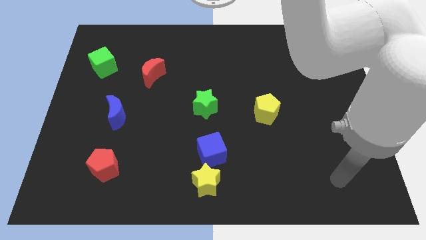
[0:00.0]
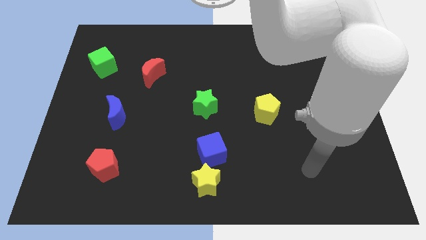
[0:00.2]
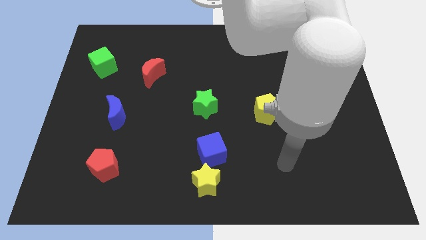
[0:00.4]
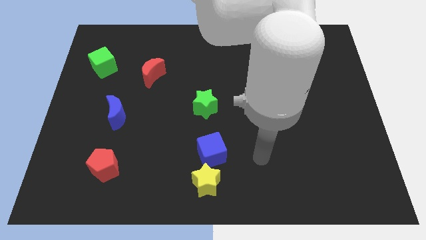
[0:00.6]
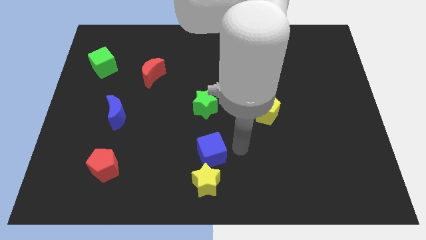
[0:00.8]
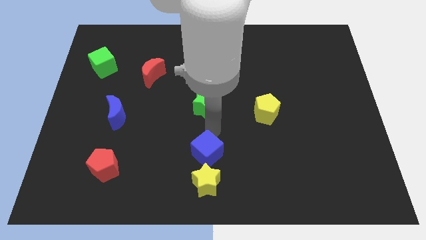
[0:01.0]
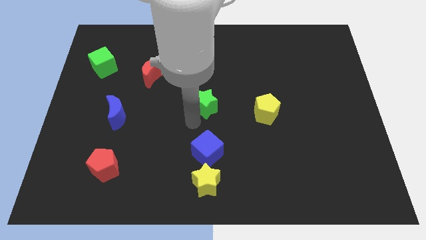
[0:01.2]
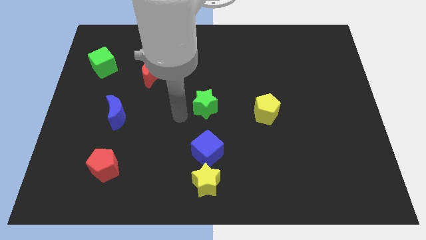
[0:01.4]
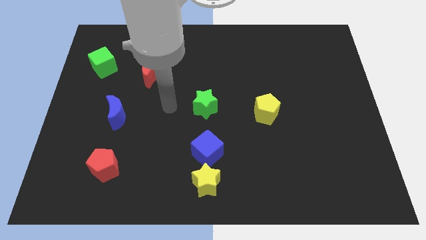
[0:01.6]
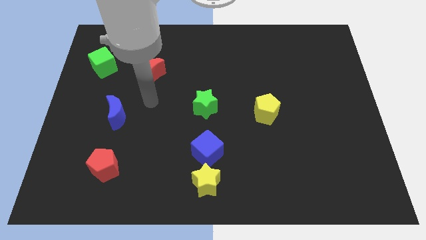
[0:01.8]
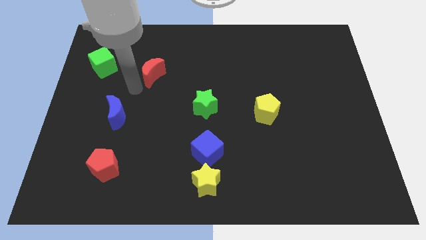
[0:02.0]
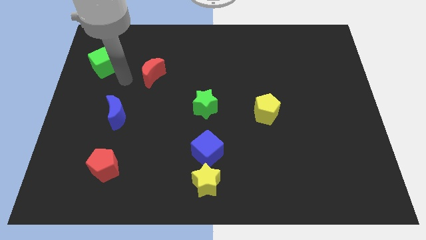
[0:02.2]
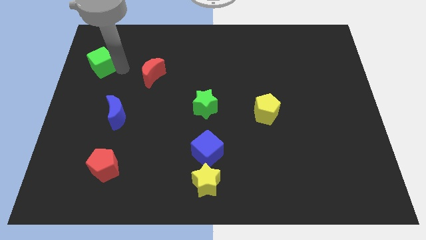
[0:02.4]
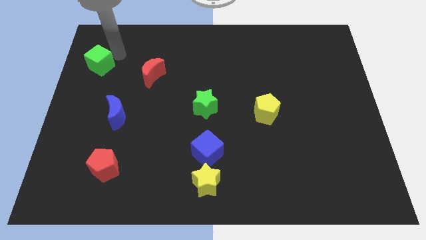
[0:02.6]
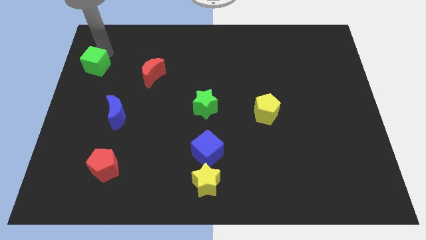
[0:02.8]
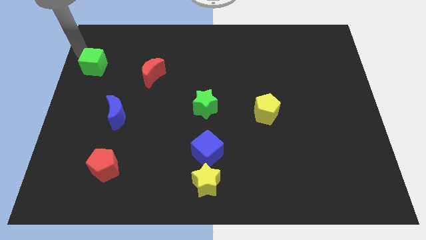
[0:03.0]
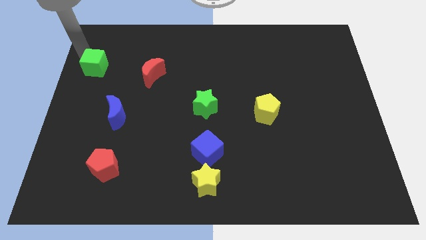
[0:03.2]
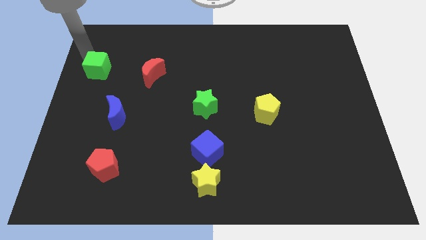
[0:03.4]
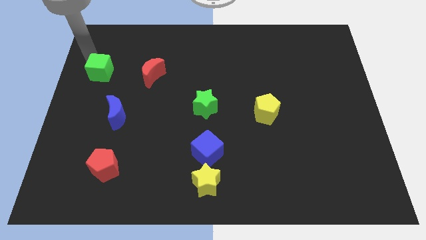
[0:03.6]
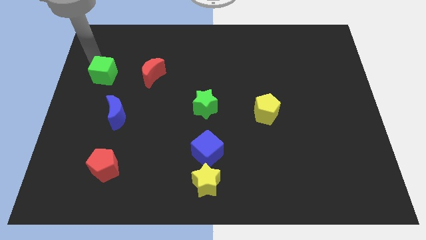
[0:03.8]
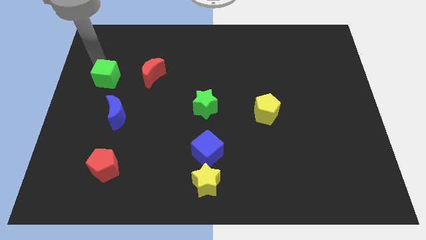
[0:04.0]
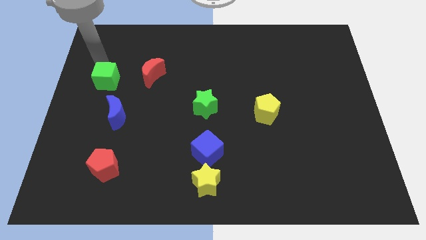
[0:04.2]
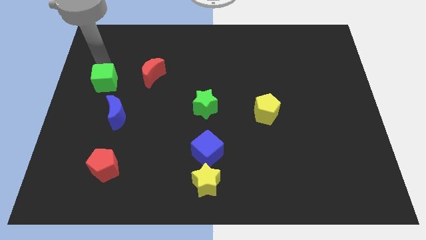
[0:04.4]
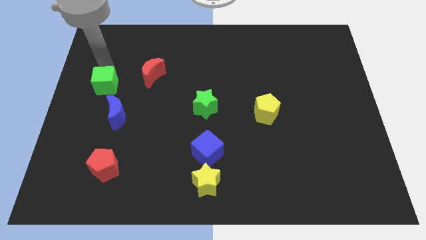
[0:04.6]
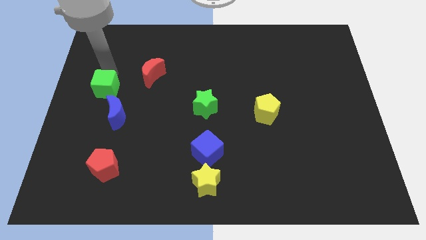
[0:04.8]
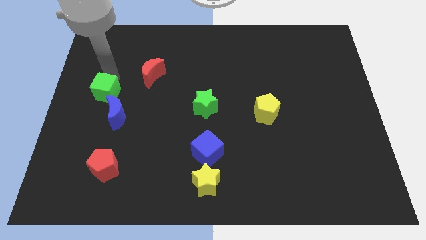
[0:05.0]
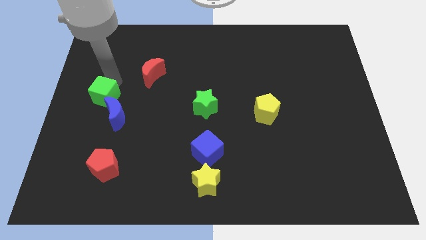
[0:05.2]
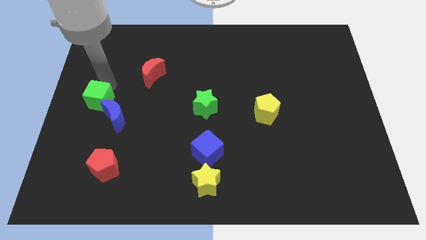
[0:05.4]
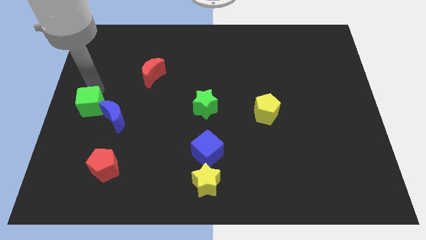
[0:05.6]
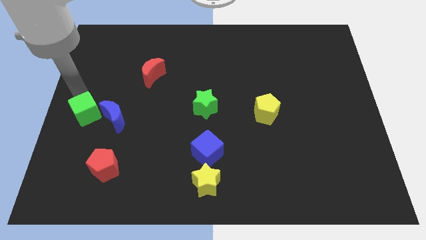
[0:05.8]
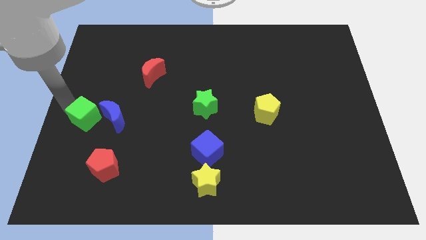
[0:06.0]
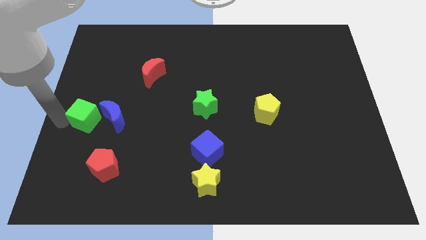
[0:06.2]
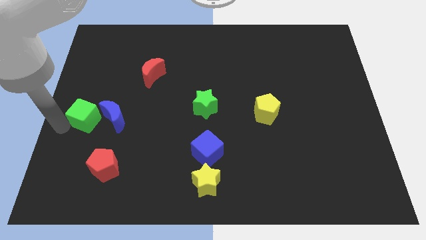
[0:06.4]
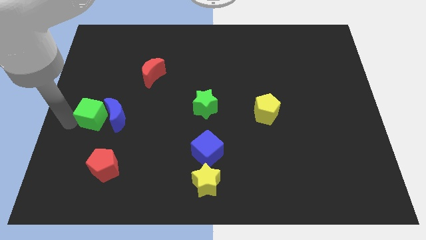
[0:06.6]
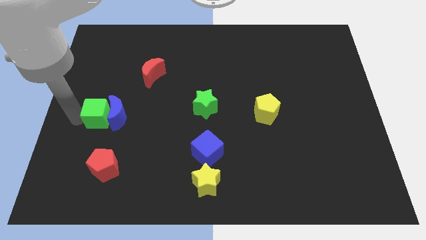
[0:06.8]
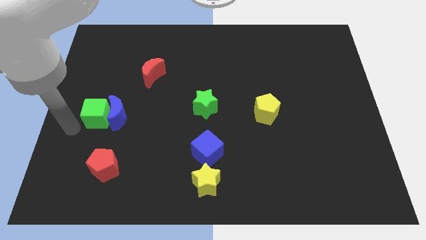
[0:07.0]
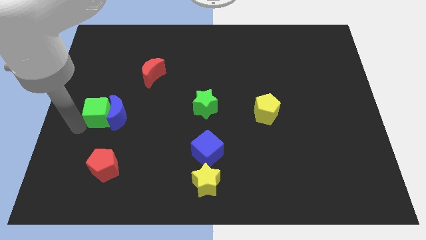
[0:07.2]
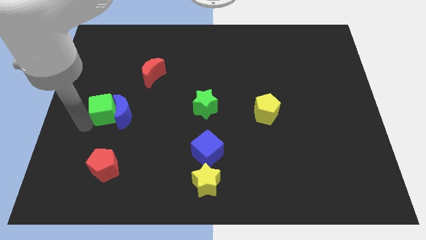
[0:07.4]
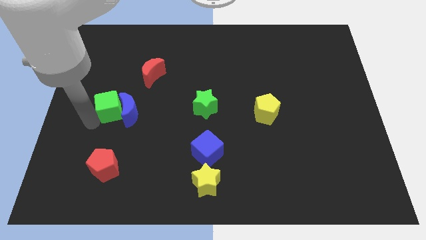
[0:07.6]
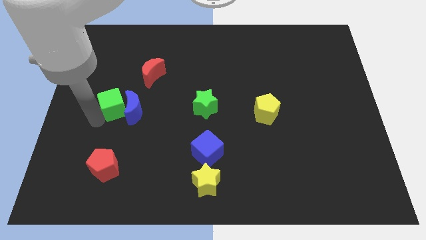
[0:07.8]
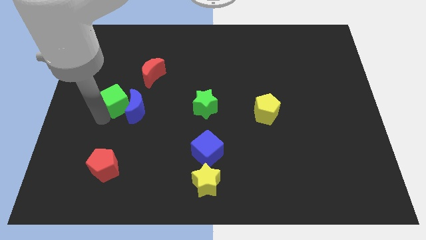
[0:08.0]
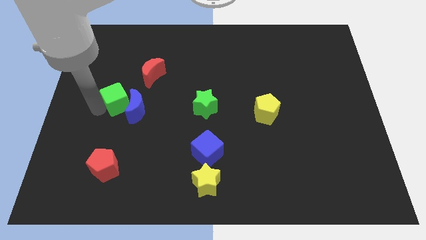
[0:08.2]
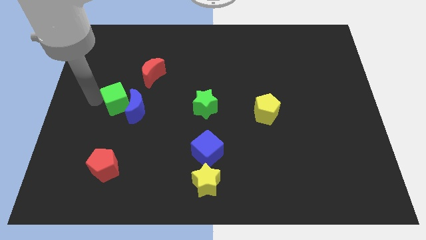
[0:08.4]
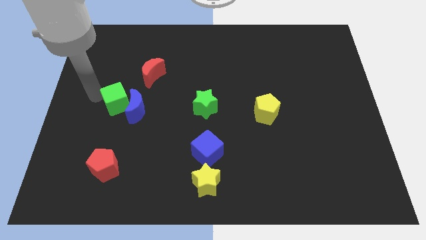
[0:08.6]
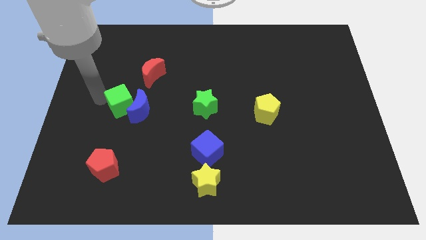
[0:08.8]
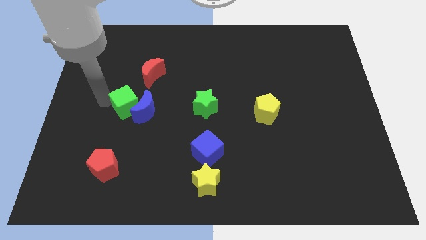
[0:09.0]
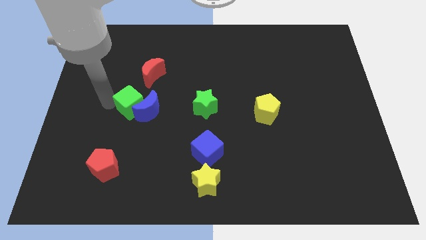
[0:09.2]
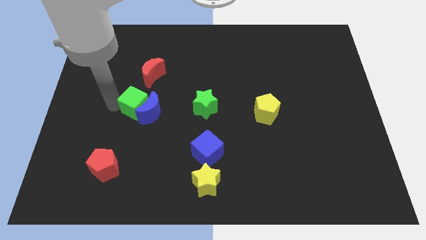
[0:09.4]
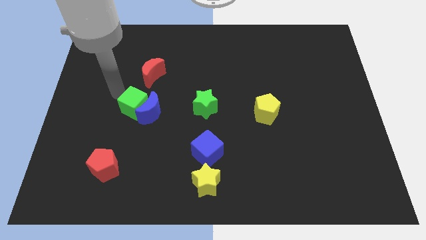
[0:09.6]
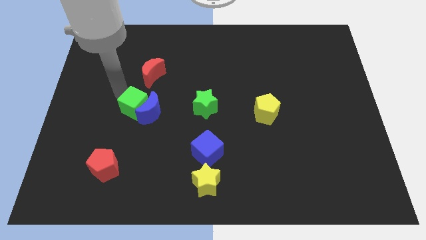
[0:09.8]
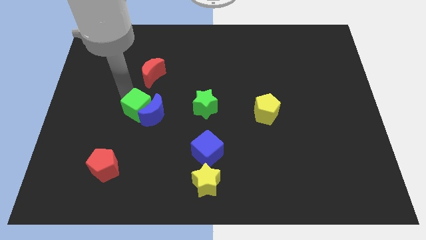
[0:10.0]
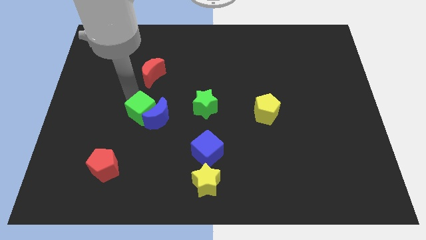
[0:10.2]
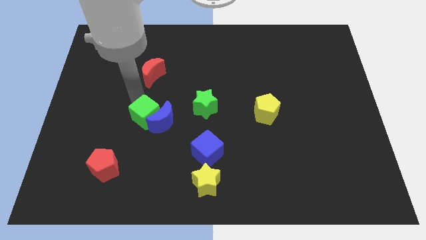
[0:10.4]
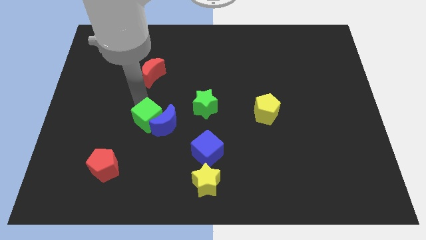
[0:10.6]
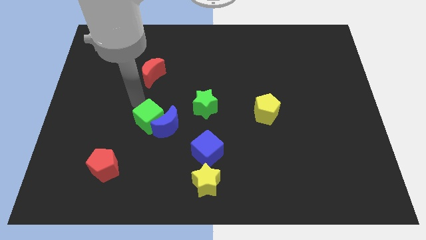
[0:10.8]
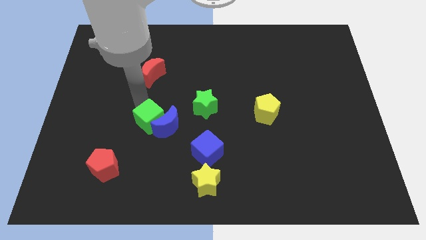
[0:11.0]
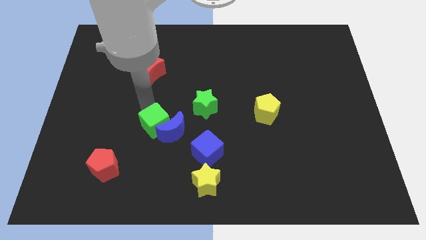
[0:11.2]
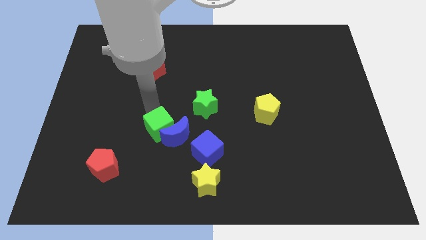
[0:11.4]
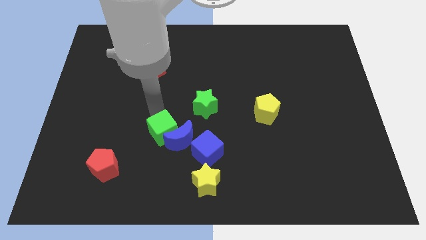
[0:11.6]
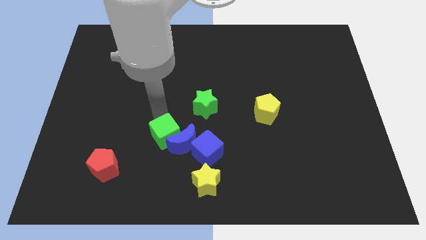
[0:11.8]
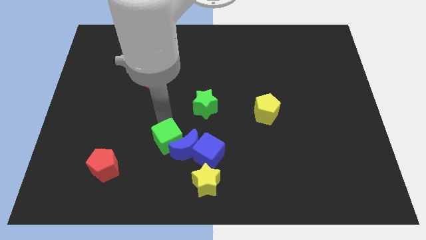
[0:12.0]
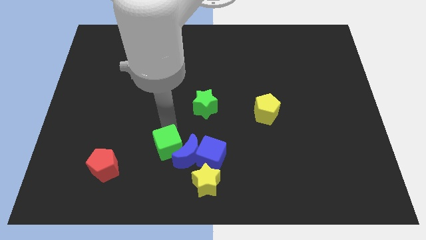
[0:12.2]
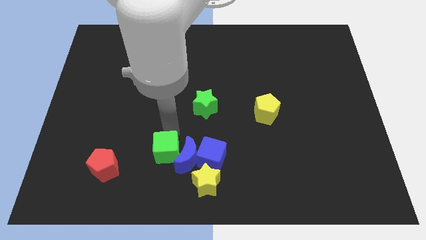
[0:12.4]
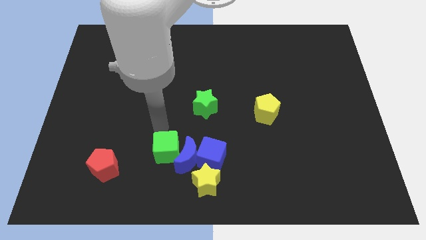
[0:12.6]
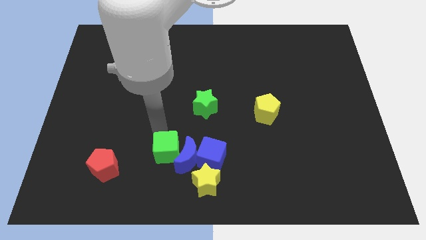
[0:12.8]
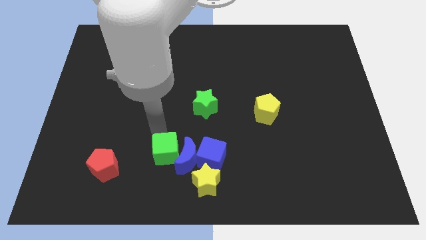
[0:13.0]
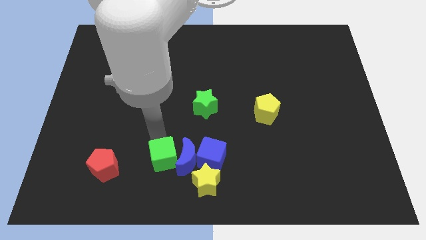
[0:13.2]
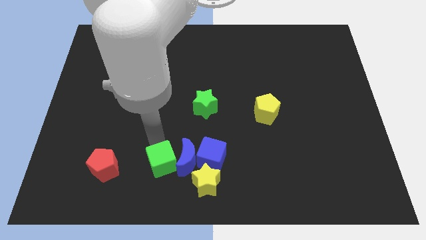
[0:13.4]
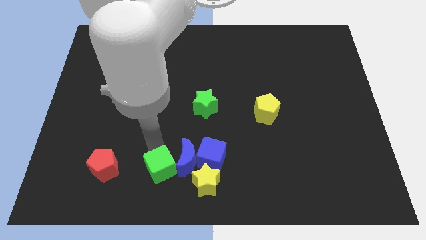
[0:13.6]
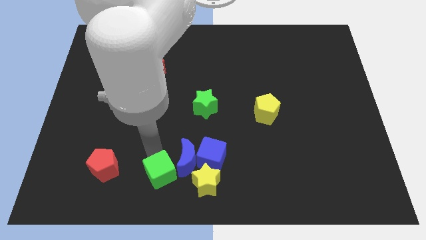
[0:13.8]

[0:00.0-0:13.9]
slide the green cube to the bottom side

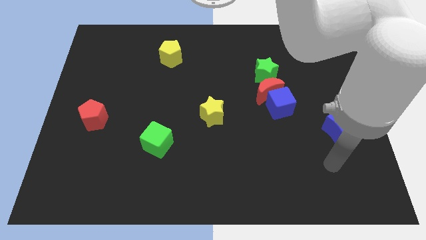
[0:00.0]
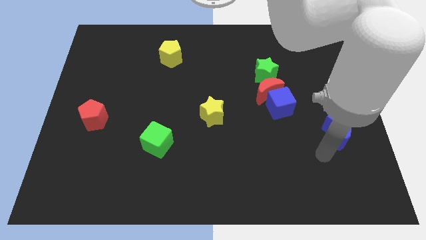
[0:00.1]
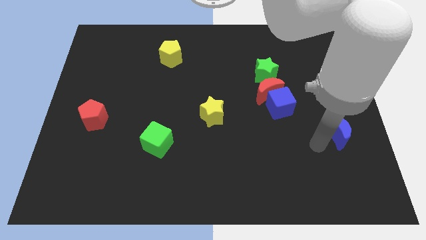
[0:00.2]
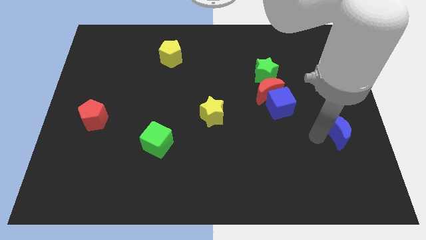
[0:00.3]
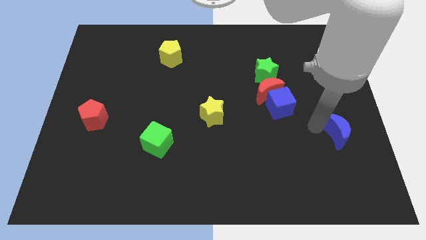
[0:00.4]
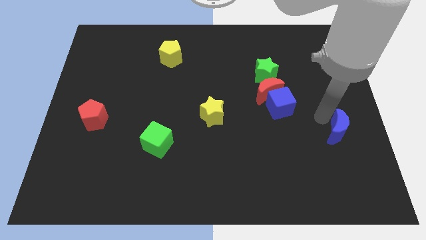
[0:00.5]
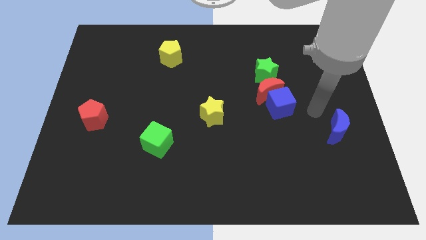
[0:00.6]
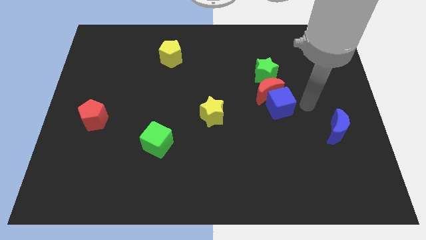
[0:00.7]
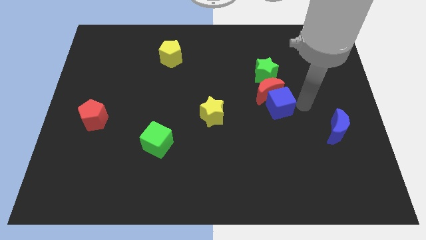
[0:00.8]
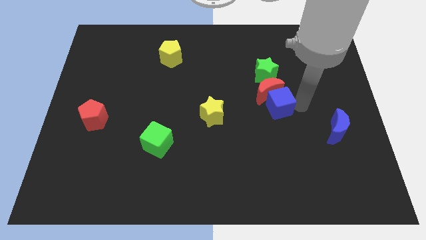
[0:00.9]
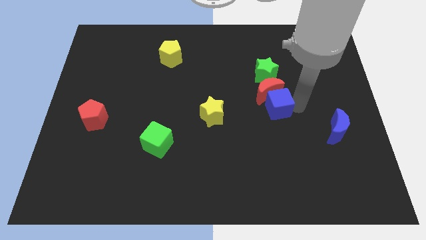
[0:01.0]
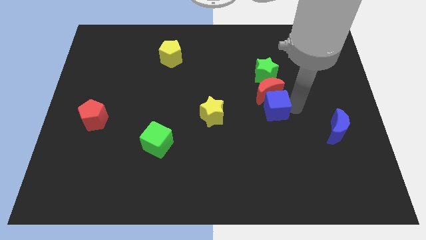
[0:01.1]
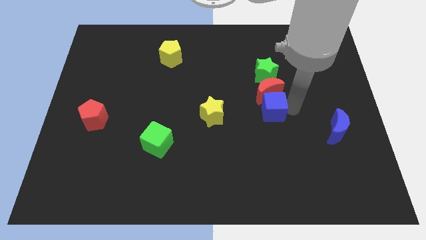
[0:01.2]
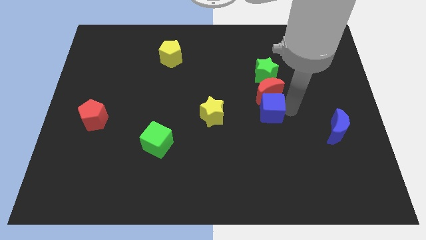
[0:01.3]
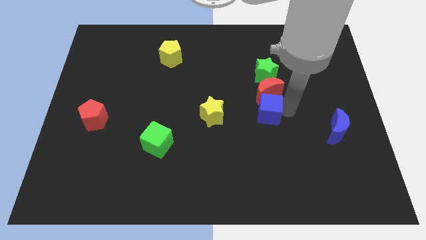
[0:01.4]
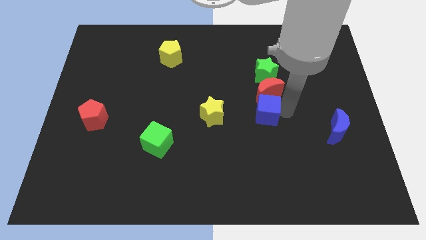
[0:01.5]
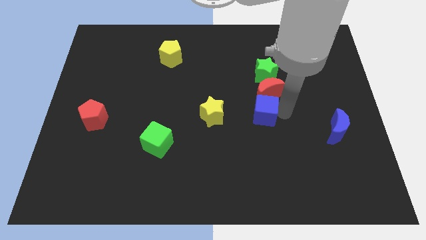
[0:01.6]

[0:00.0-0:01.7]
push the blue cube to the center
